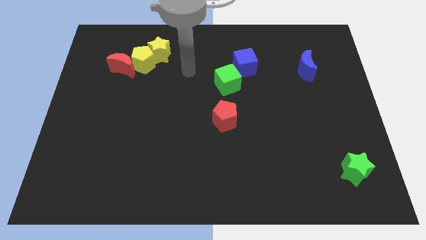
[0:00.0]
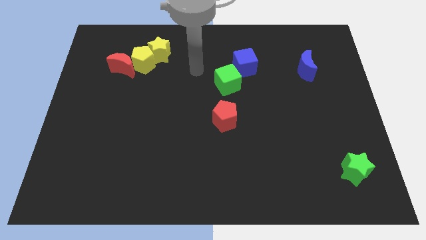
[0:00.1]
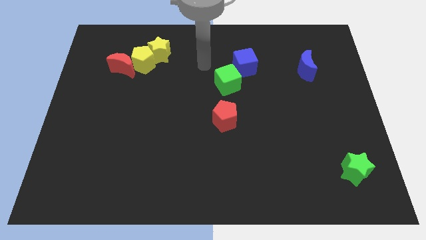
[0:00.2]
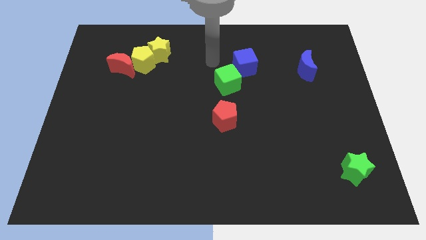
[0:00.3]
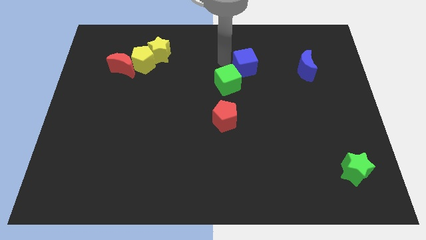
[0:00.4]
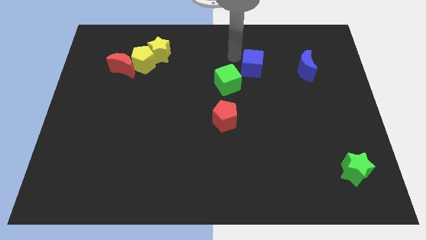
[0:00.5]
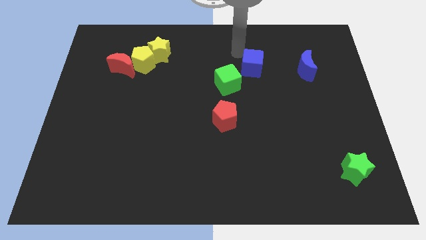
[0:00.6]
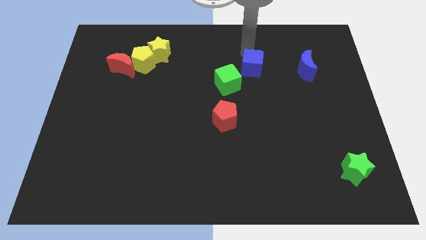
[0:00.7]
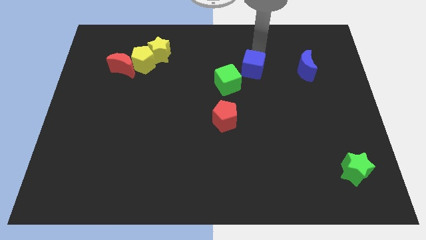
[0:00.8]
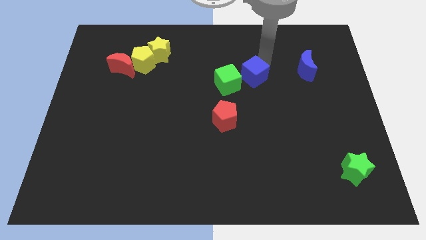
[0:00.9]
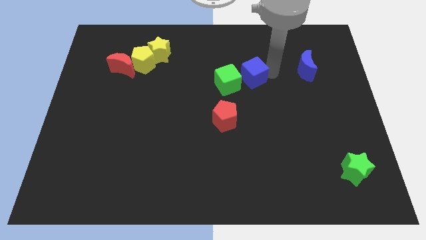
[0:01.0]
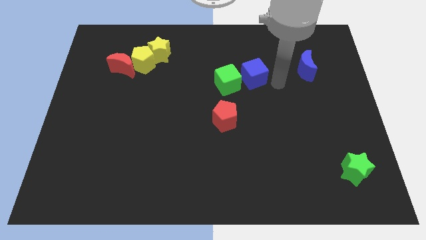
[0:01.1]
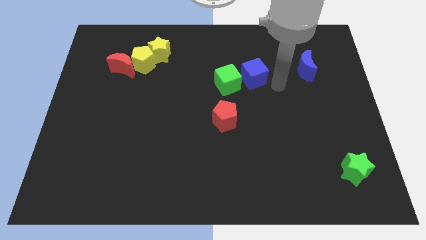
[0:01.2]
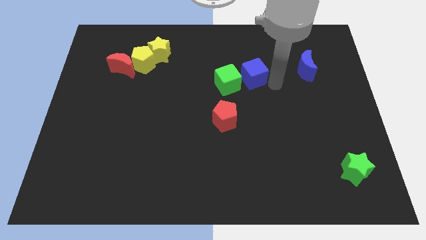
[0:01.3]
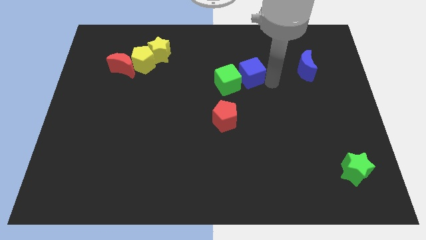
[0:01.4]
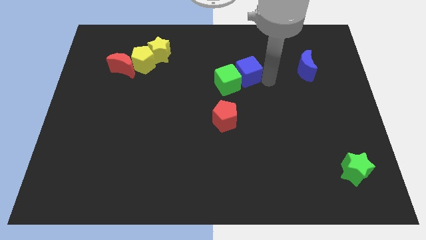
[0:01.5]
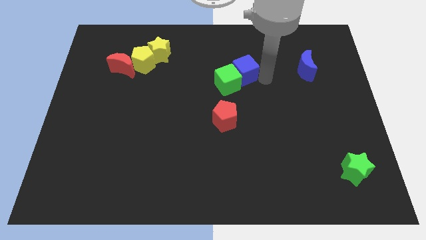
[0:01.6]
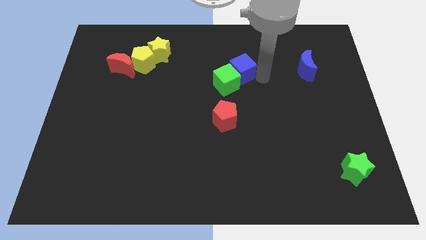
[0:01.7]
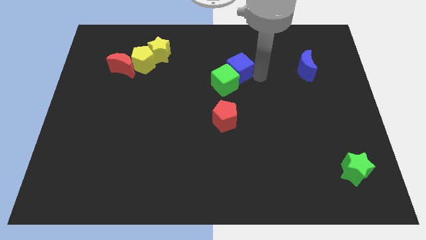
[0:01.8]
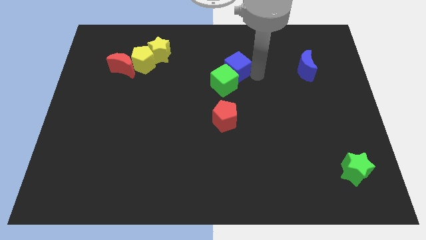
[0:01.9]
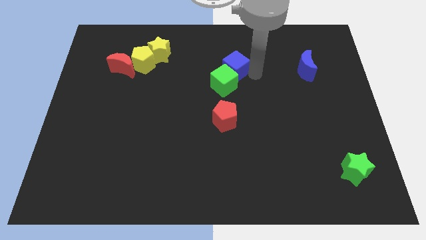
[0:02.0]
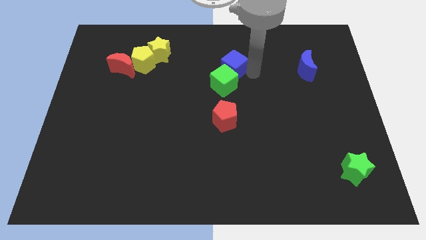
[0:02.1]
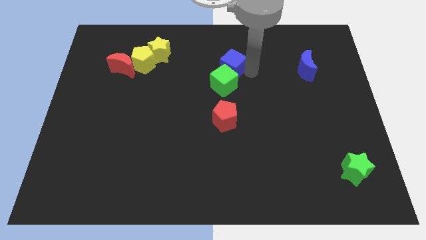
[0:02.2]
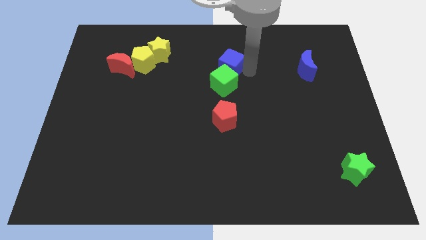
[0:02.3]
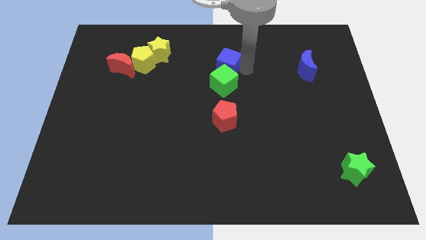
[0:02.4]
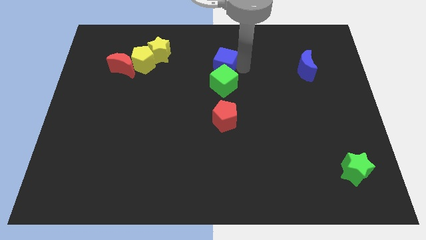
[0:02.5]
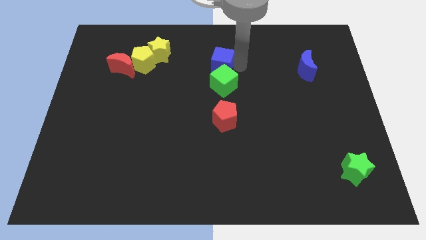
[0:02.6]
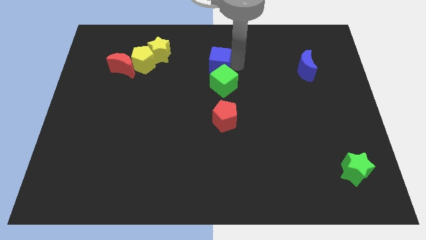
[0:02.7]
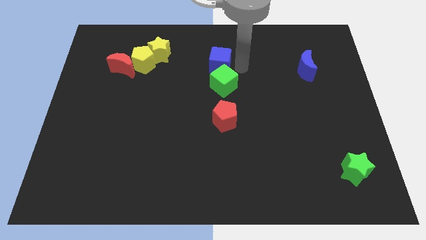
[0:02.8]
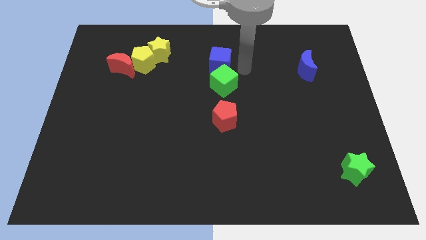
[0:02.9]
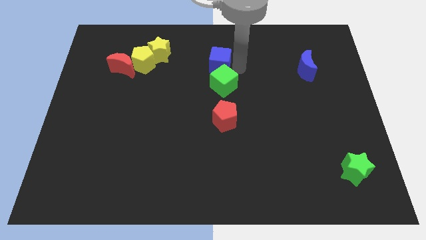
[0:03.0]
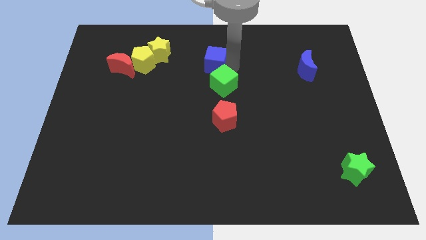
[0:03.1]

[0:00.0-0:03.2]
move the blue cube a little to the left

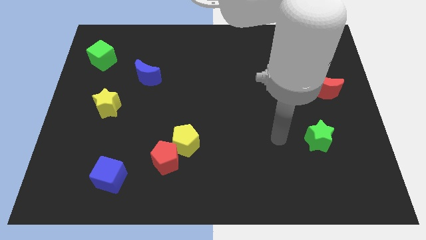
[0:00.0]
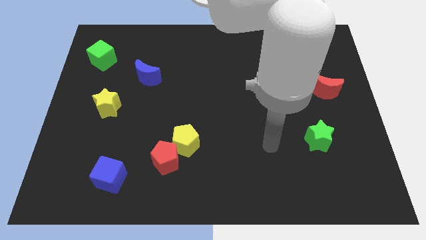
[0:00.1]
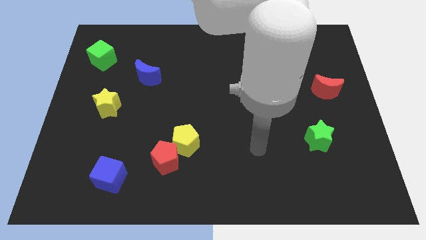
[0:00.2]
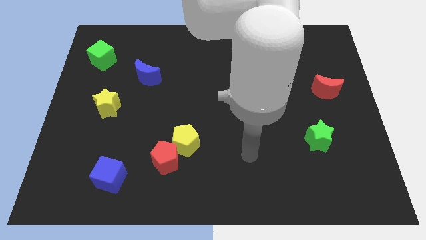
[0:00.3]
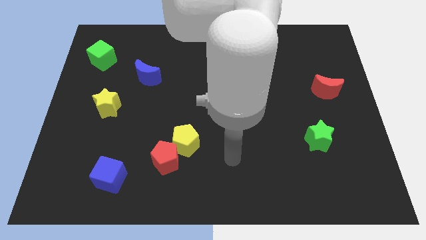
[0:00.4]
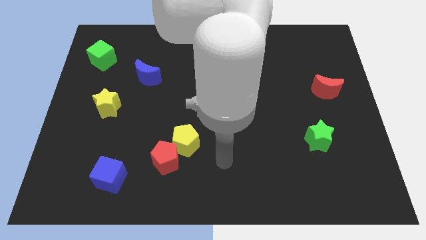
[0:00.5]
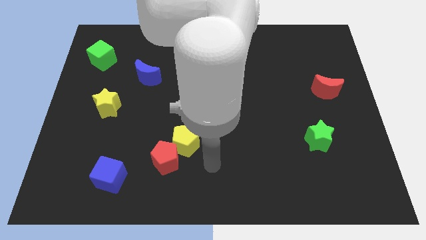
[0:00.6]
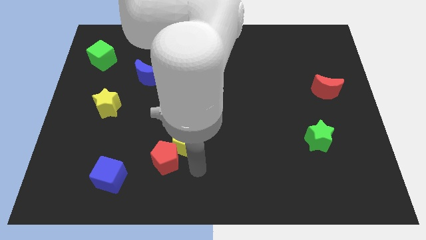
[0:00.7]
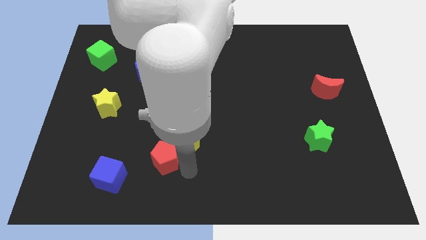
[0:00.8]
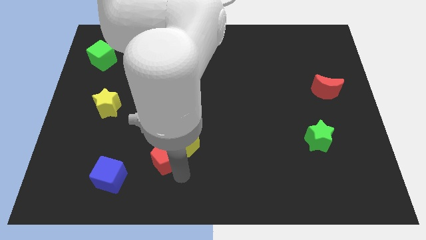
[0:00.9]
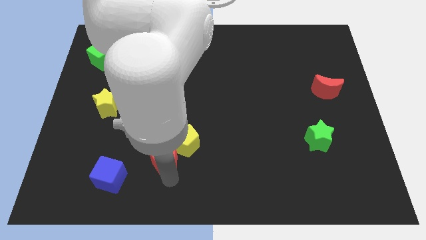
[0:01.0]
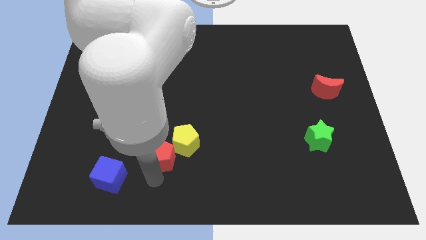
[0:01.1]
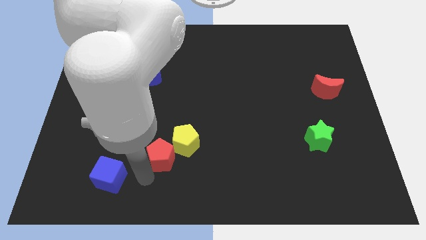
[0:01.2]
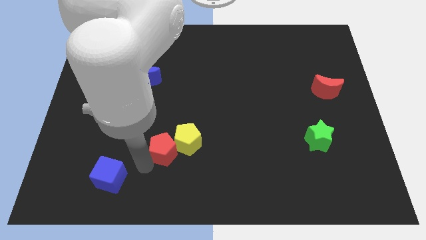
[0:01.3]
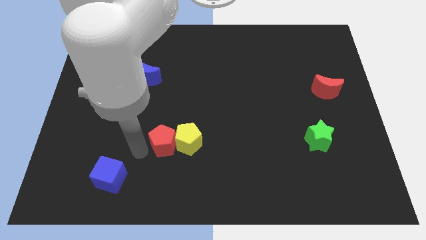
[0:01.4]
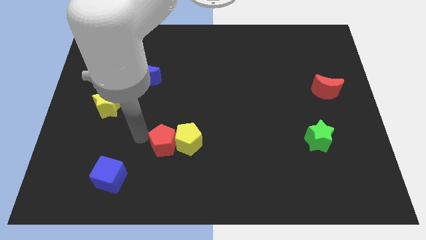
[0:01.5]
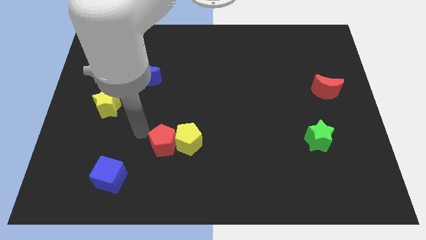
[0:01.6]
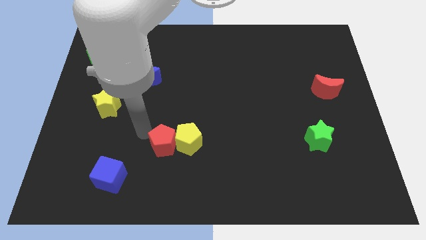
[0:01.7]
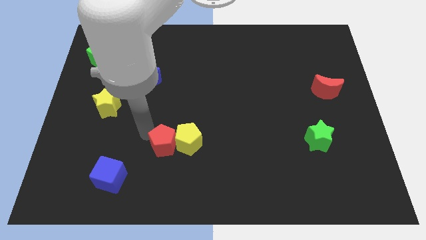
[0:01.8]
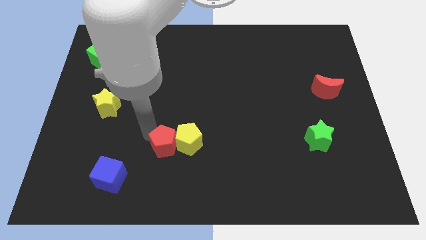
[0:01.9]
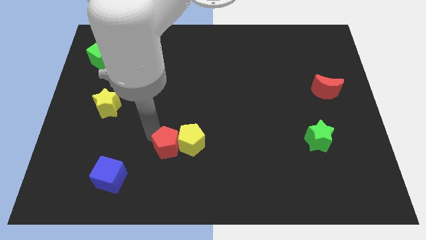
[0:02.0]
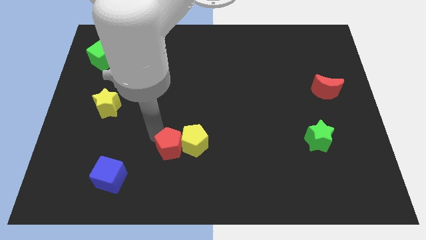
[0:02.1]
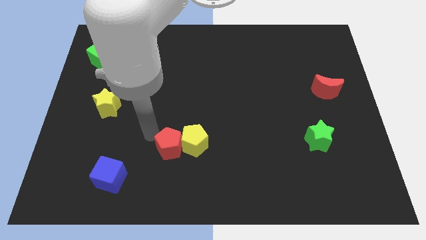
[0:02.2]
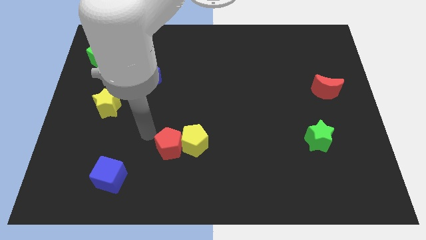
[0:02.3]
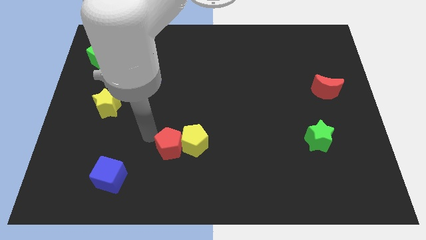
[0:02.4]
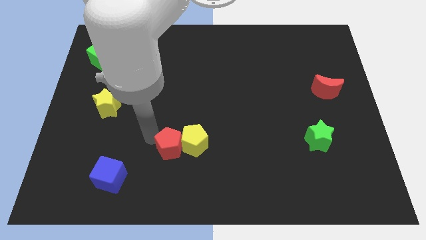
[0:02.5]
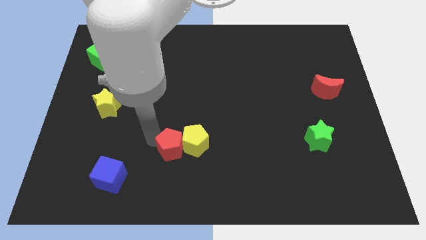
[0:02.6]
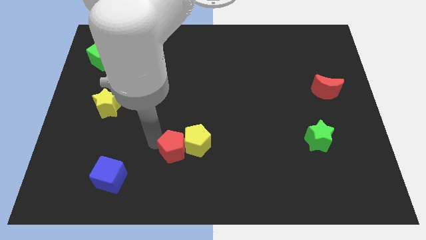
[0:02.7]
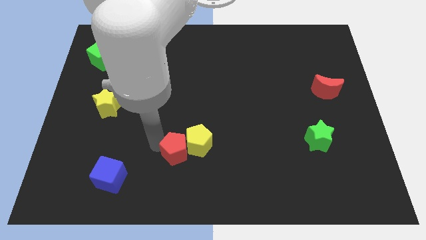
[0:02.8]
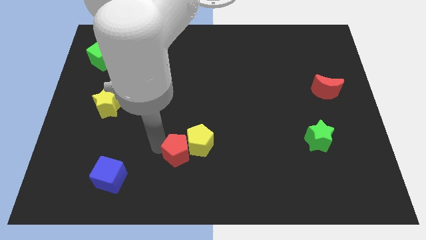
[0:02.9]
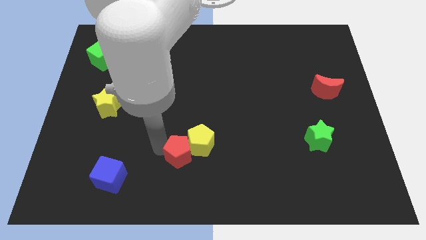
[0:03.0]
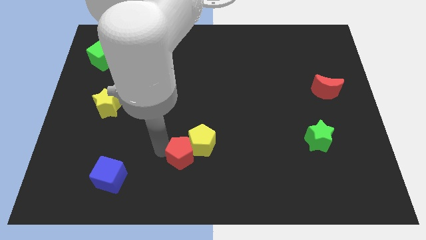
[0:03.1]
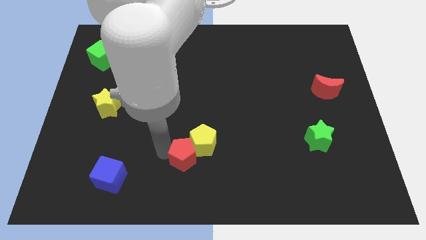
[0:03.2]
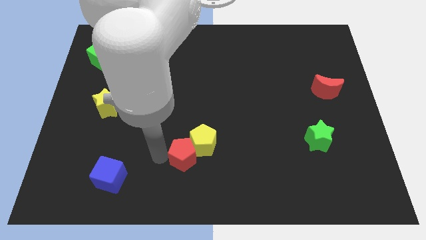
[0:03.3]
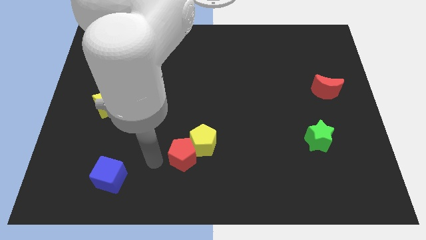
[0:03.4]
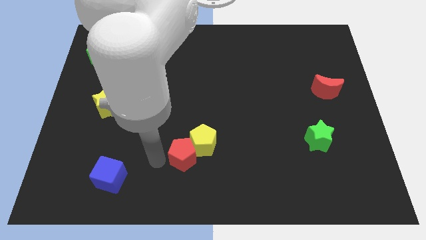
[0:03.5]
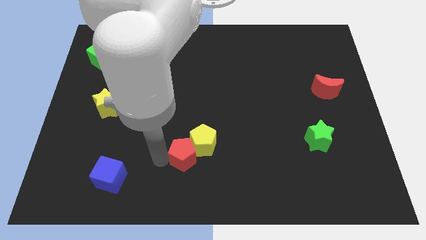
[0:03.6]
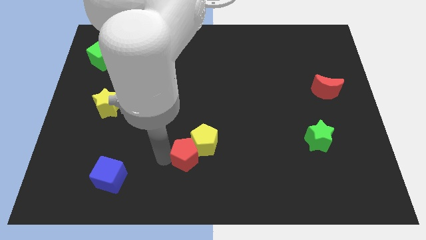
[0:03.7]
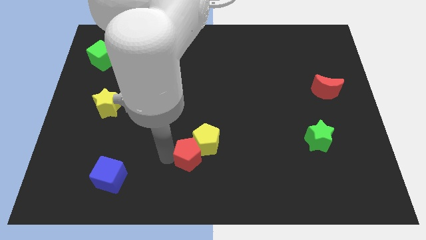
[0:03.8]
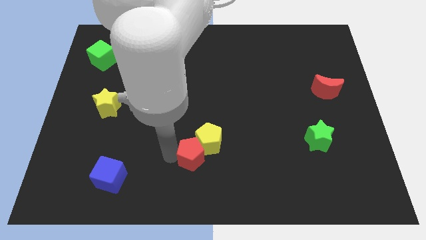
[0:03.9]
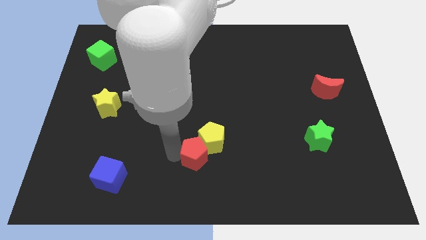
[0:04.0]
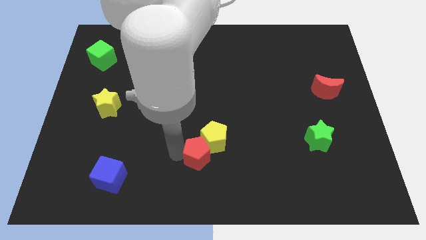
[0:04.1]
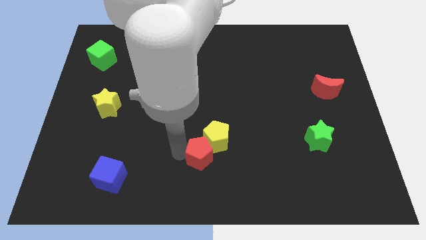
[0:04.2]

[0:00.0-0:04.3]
slightly slide the red pentagon to the right

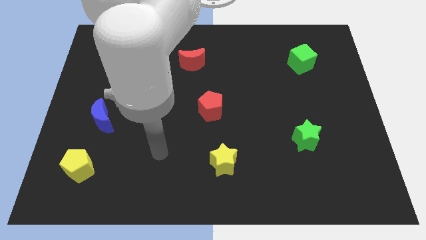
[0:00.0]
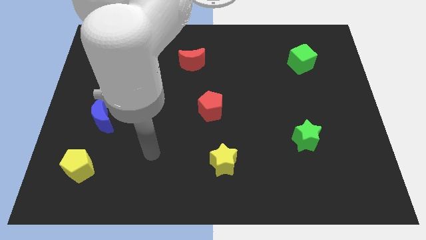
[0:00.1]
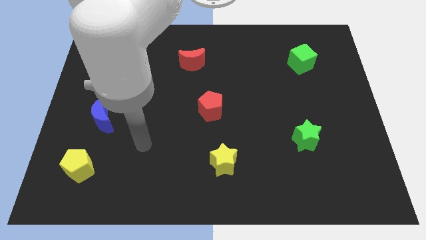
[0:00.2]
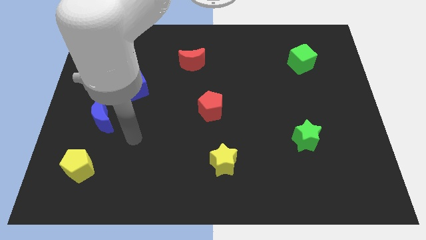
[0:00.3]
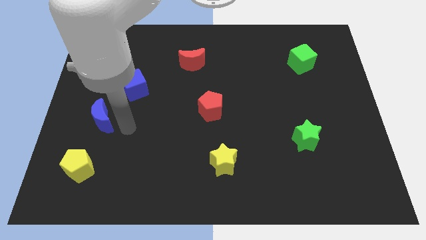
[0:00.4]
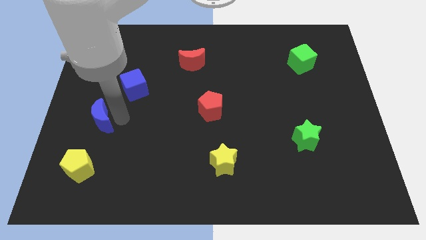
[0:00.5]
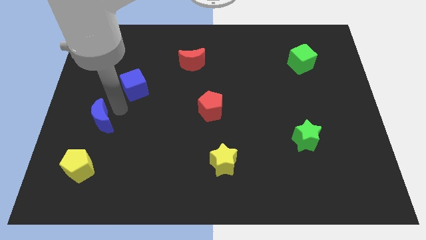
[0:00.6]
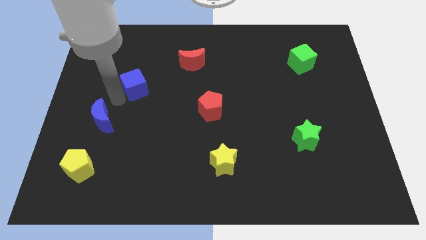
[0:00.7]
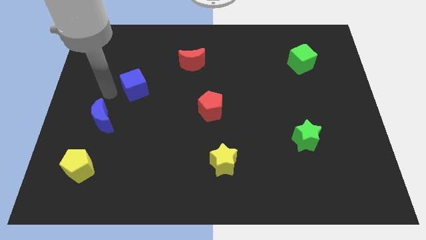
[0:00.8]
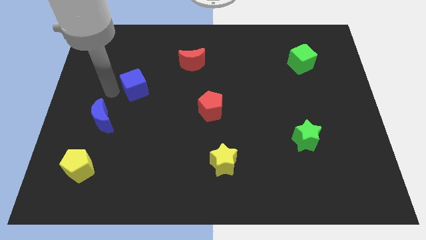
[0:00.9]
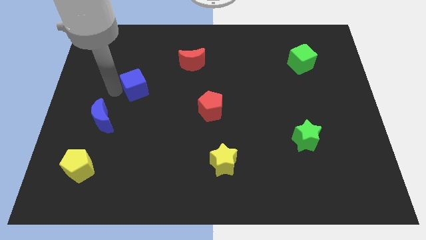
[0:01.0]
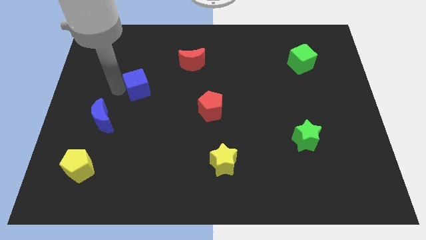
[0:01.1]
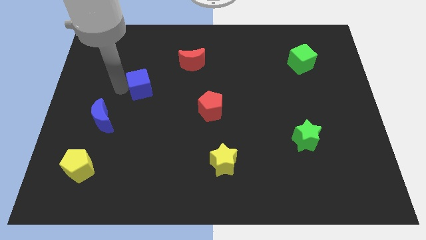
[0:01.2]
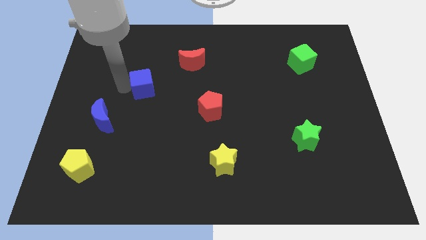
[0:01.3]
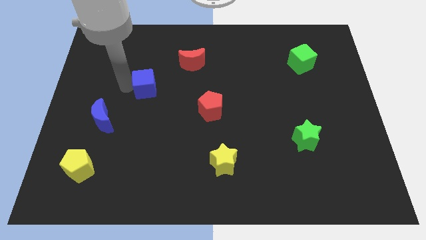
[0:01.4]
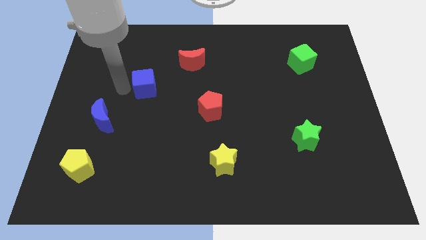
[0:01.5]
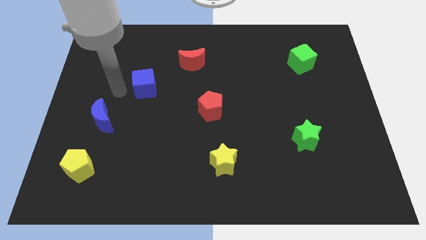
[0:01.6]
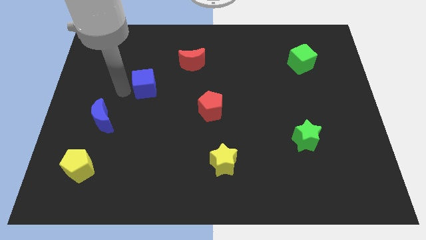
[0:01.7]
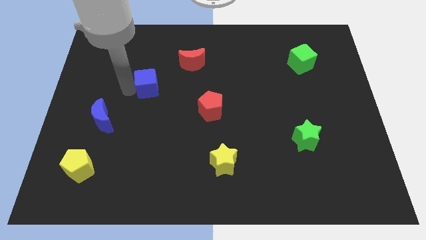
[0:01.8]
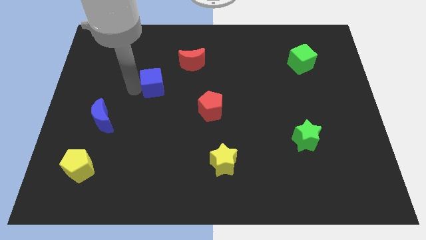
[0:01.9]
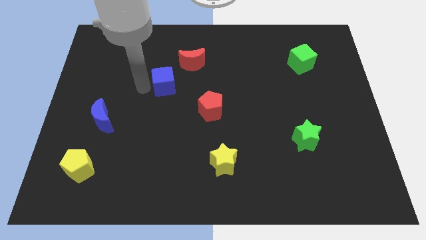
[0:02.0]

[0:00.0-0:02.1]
slide the blue cube a bit to the right
